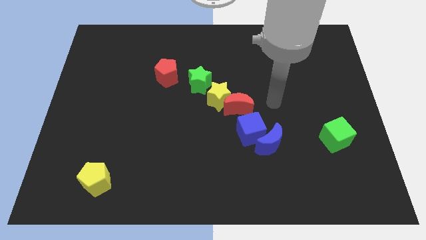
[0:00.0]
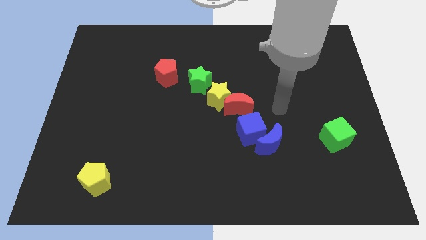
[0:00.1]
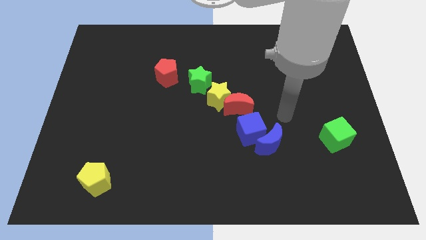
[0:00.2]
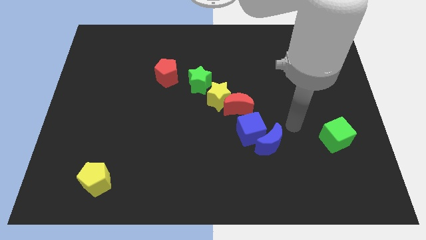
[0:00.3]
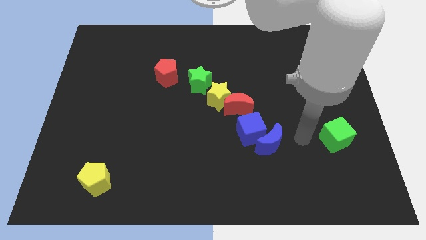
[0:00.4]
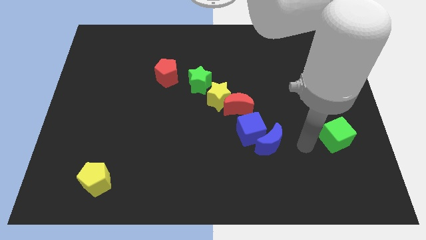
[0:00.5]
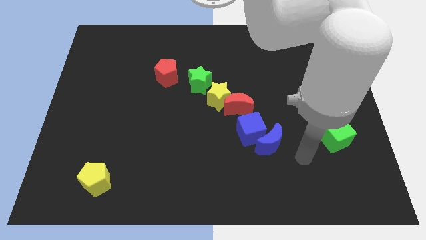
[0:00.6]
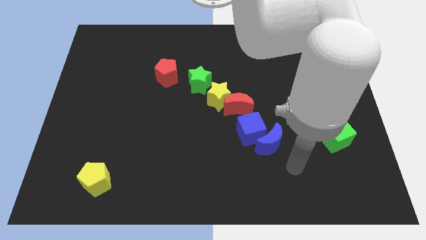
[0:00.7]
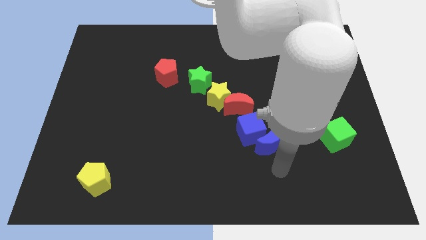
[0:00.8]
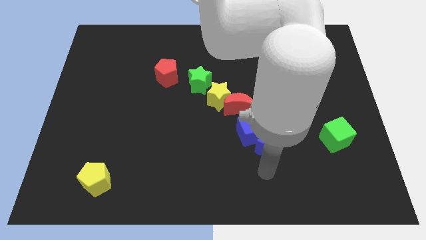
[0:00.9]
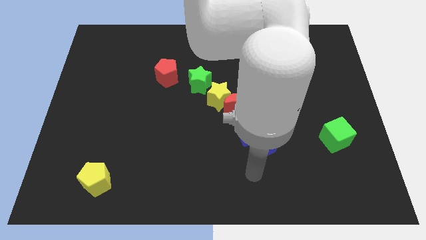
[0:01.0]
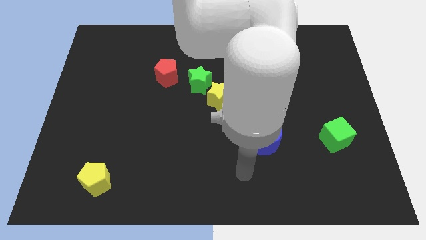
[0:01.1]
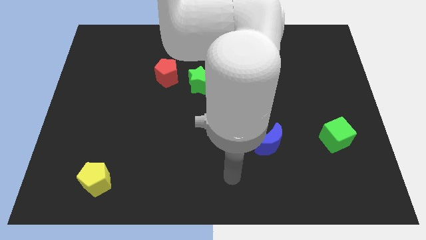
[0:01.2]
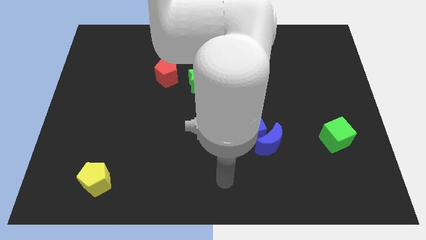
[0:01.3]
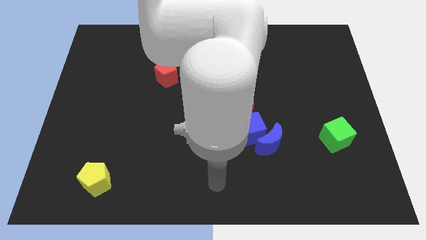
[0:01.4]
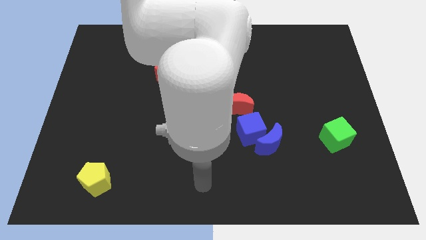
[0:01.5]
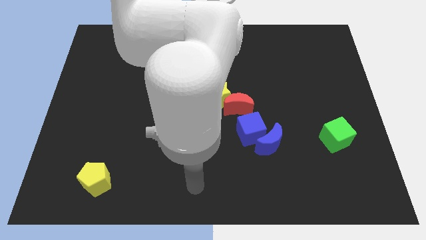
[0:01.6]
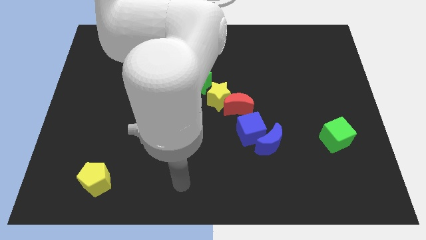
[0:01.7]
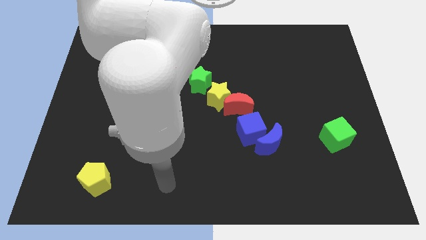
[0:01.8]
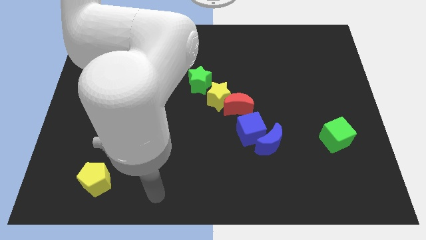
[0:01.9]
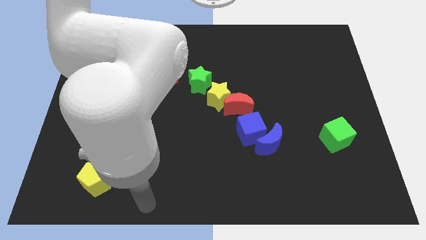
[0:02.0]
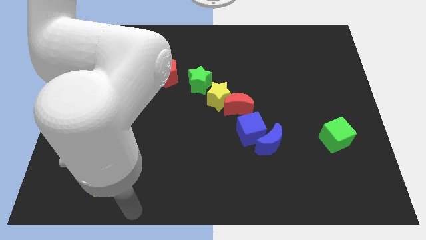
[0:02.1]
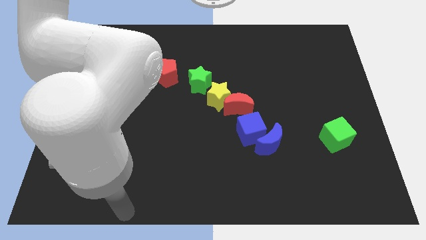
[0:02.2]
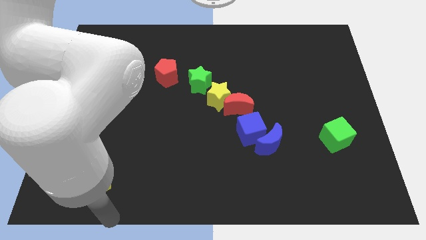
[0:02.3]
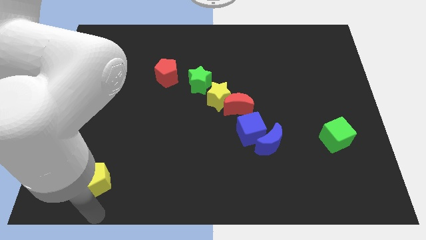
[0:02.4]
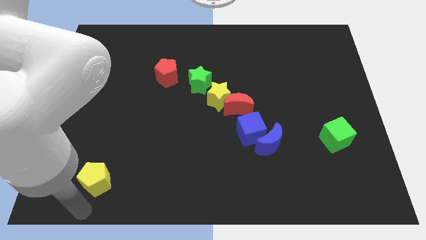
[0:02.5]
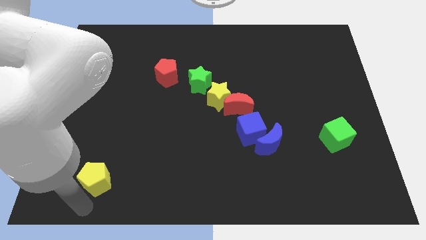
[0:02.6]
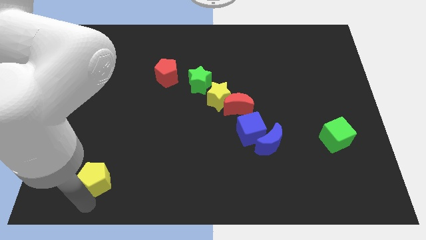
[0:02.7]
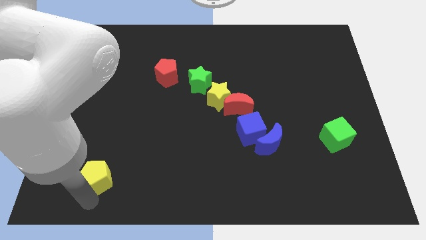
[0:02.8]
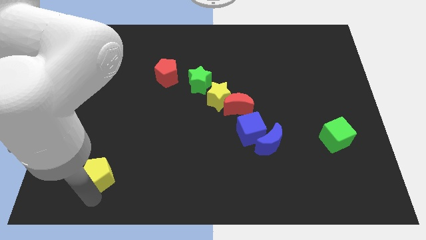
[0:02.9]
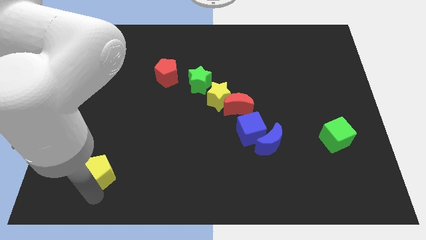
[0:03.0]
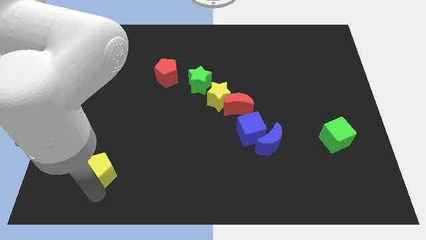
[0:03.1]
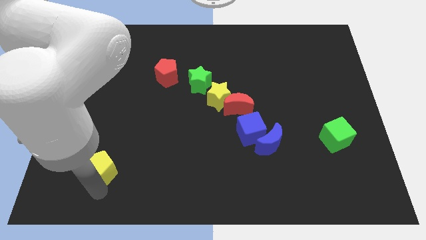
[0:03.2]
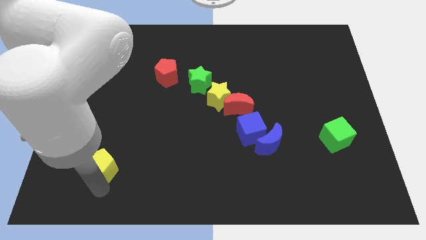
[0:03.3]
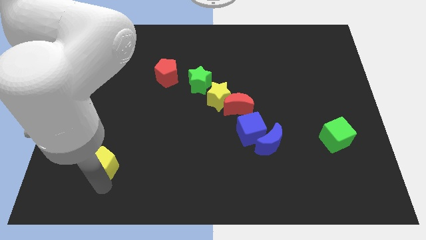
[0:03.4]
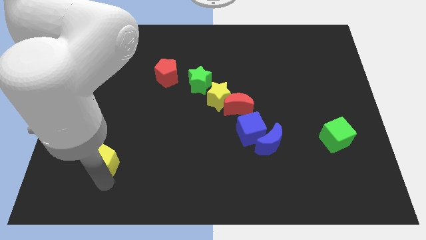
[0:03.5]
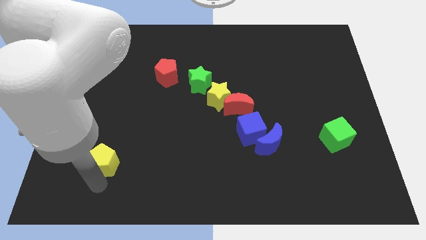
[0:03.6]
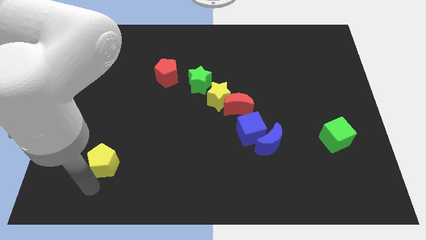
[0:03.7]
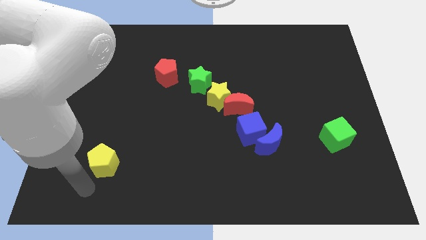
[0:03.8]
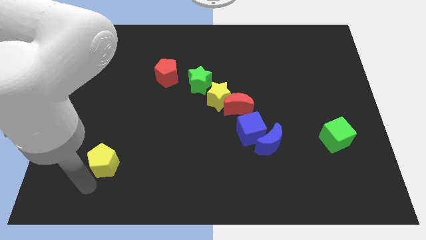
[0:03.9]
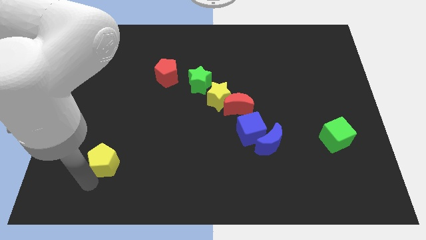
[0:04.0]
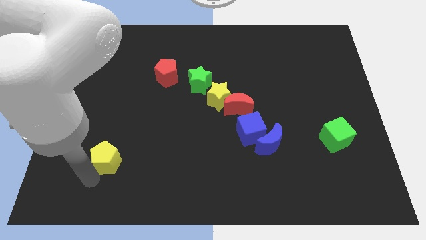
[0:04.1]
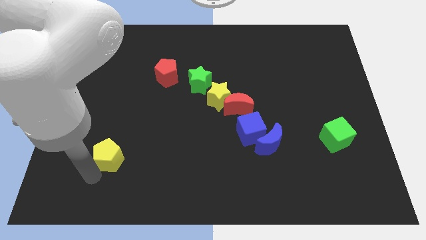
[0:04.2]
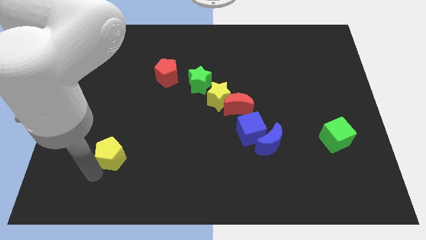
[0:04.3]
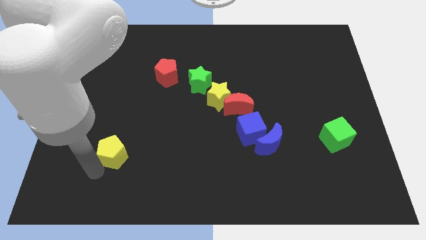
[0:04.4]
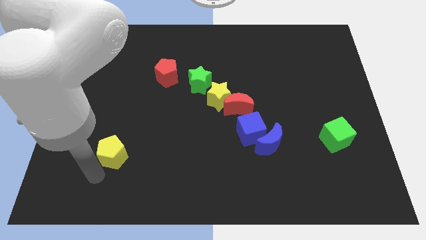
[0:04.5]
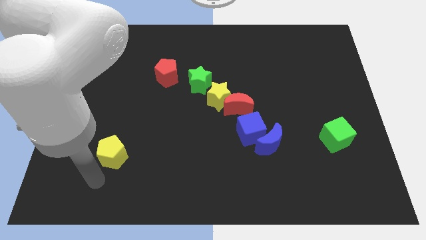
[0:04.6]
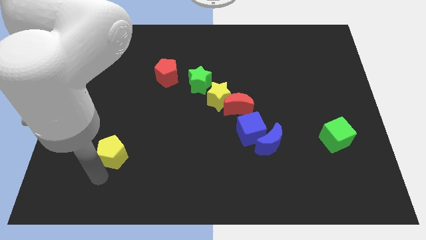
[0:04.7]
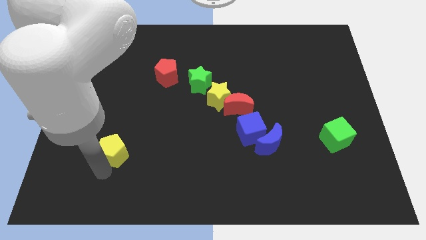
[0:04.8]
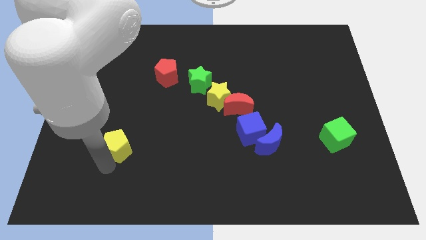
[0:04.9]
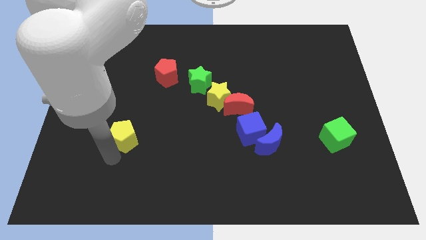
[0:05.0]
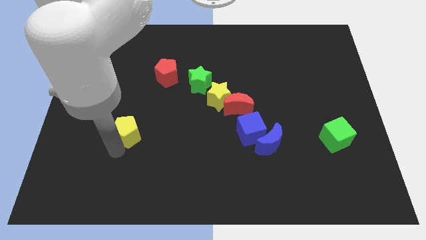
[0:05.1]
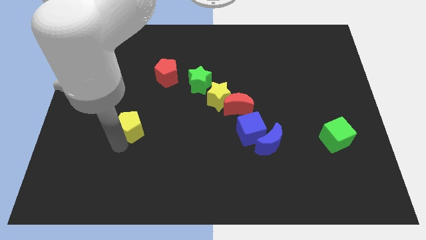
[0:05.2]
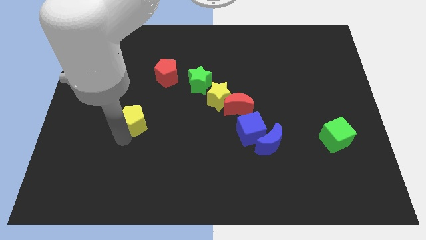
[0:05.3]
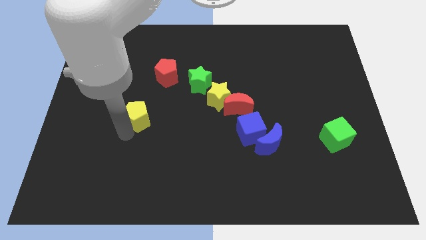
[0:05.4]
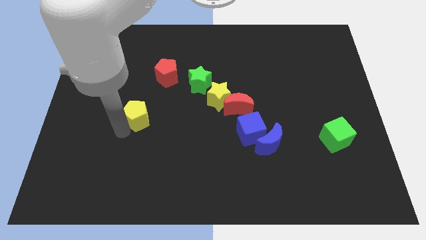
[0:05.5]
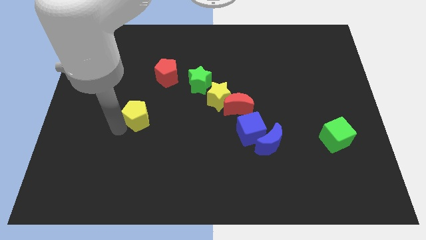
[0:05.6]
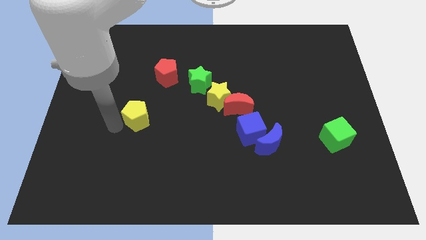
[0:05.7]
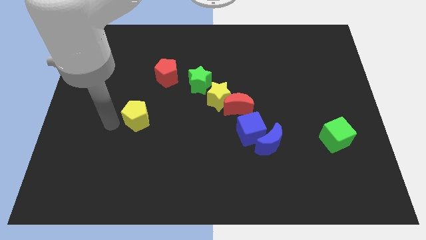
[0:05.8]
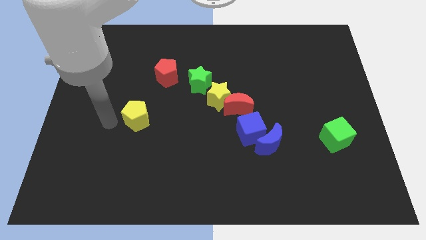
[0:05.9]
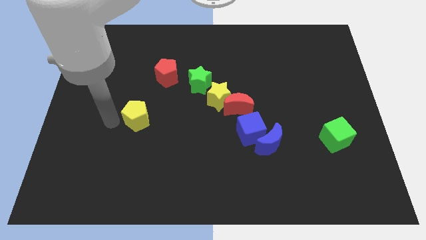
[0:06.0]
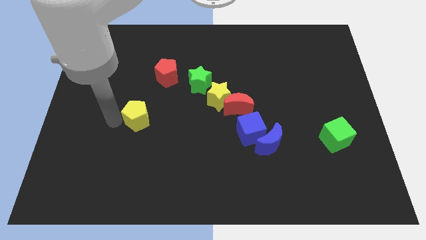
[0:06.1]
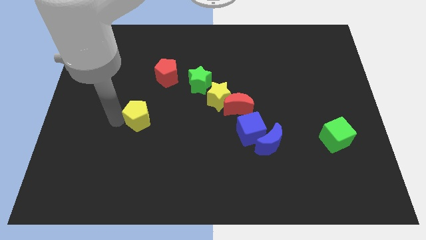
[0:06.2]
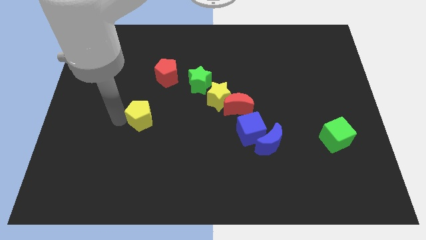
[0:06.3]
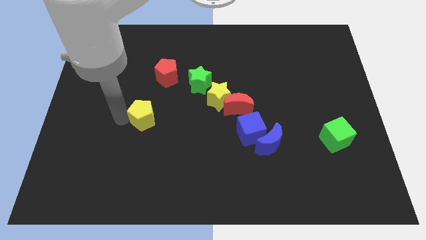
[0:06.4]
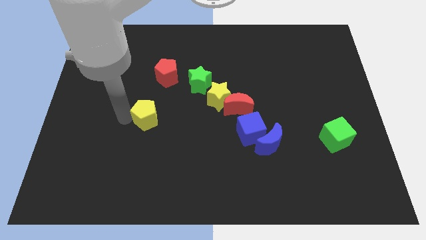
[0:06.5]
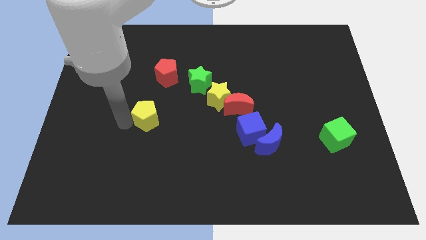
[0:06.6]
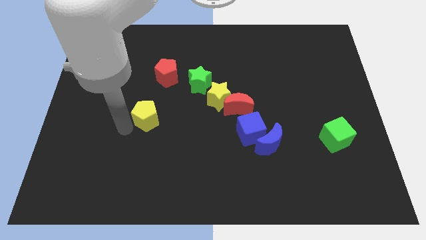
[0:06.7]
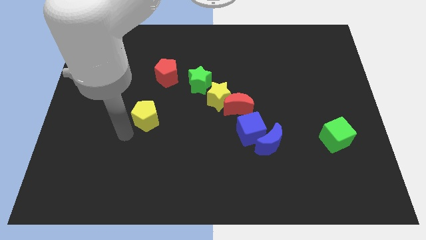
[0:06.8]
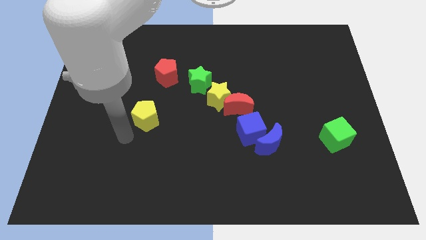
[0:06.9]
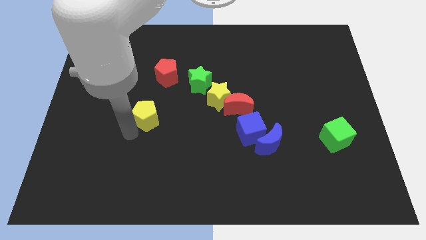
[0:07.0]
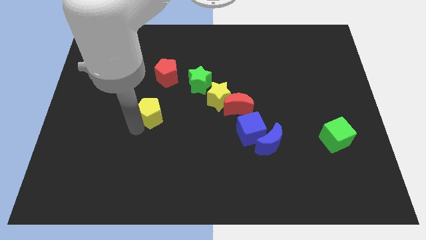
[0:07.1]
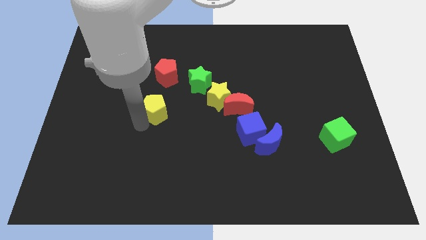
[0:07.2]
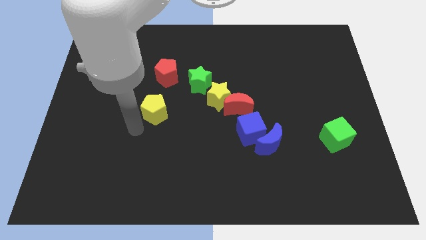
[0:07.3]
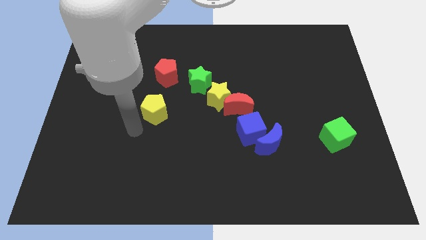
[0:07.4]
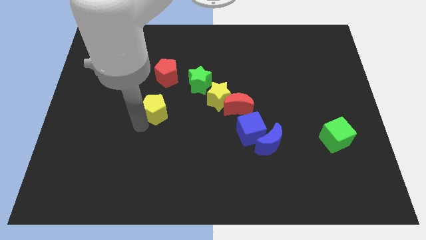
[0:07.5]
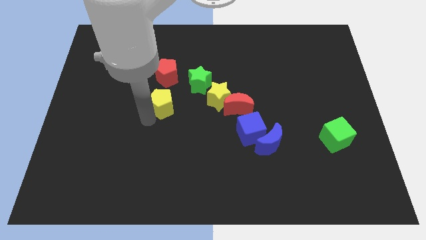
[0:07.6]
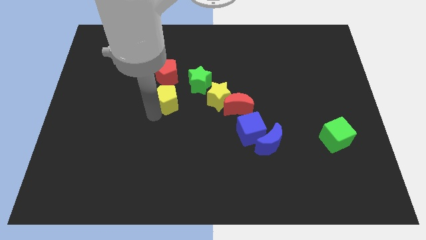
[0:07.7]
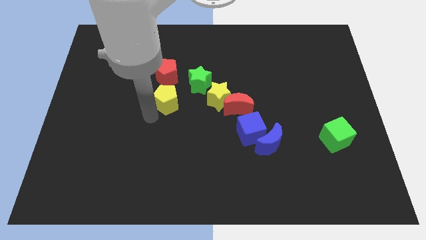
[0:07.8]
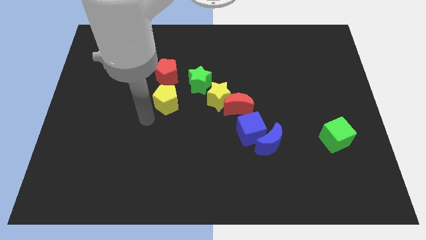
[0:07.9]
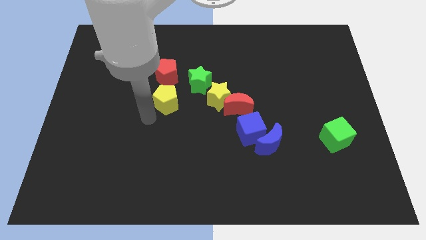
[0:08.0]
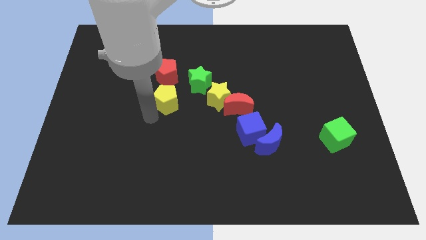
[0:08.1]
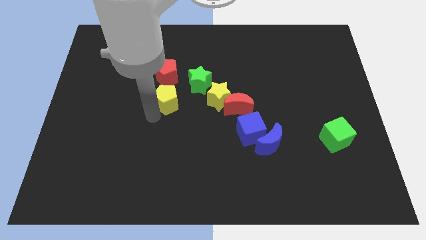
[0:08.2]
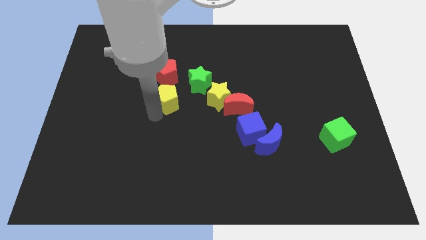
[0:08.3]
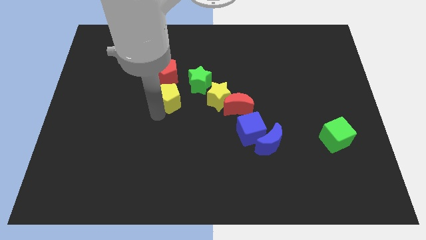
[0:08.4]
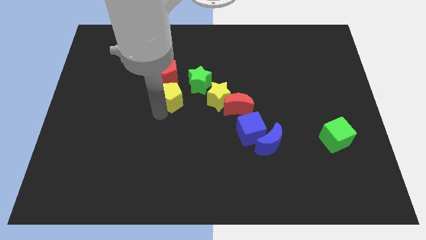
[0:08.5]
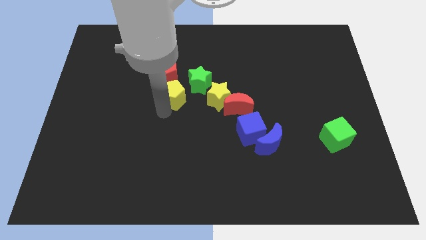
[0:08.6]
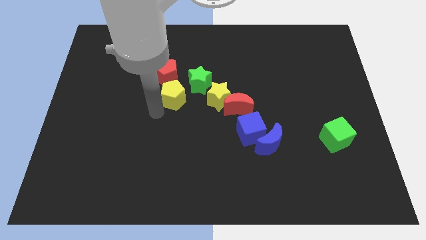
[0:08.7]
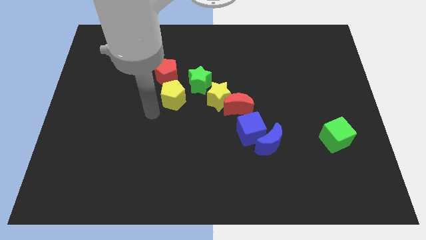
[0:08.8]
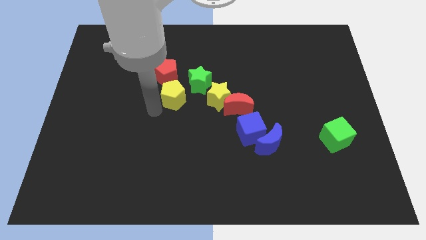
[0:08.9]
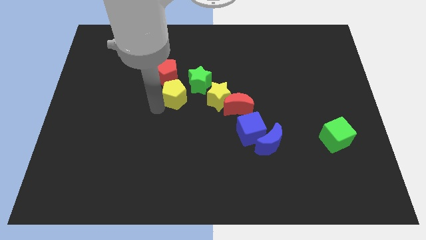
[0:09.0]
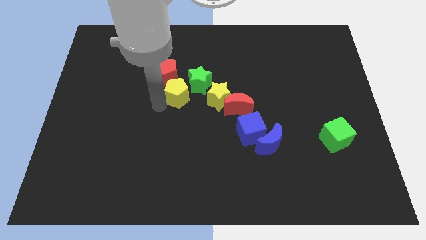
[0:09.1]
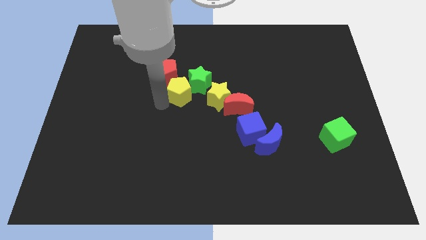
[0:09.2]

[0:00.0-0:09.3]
move the yellow pentagon close to the green star
